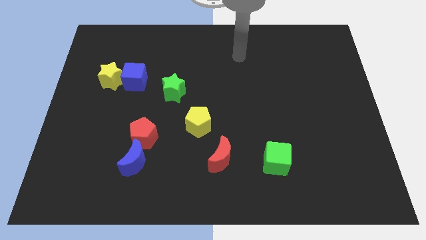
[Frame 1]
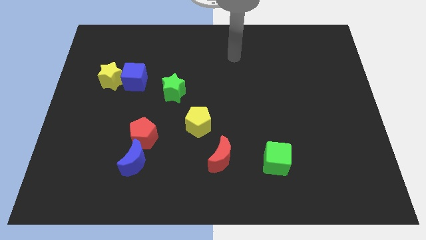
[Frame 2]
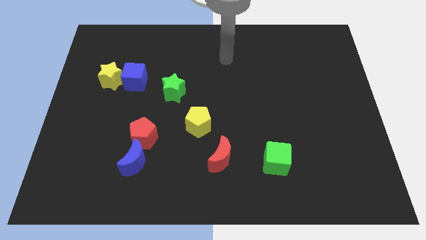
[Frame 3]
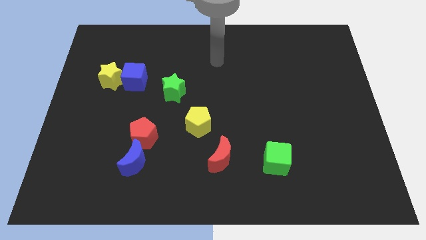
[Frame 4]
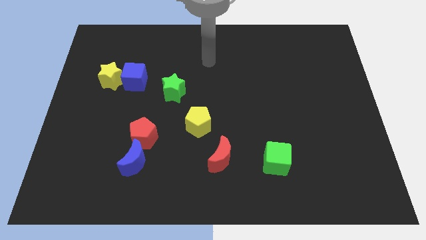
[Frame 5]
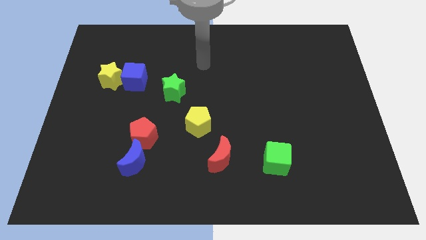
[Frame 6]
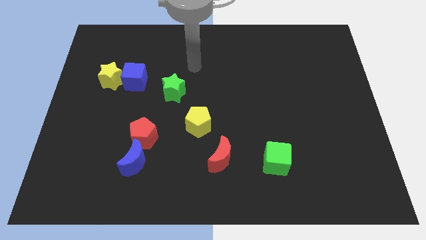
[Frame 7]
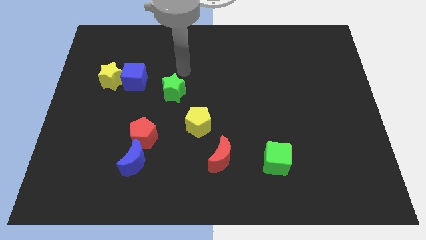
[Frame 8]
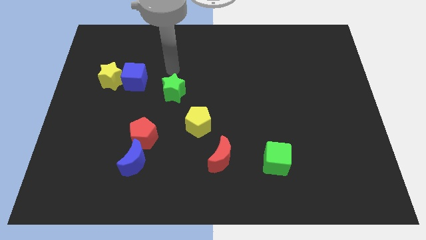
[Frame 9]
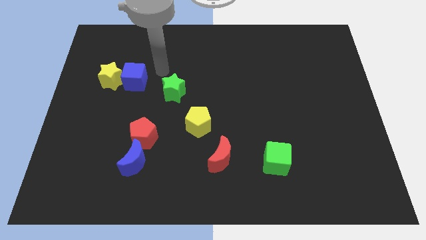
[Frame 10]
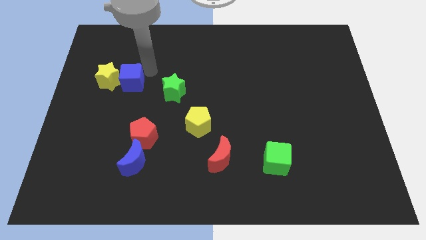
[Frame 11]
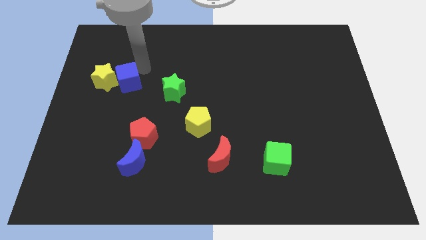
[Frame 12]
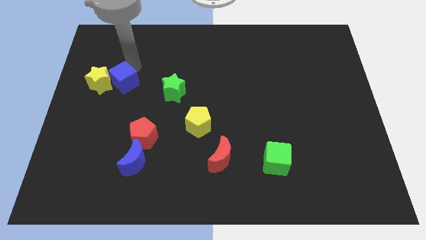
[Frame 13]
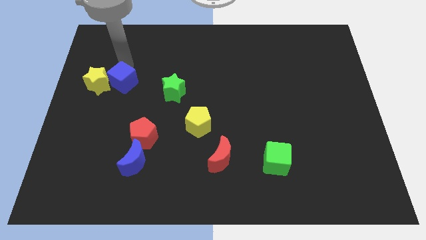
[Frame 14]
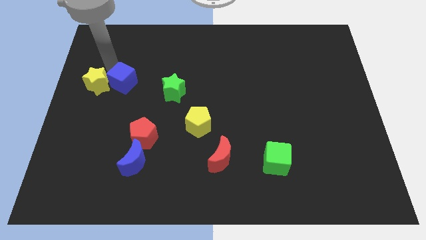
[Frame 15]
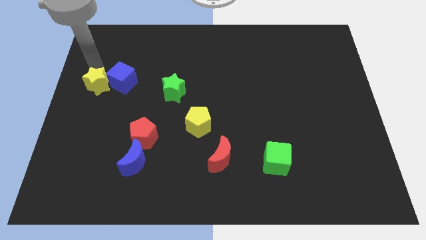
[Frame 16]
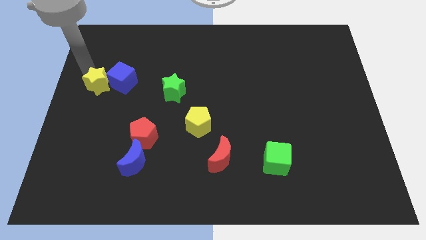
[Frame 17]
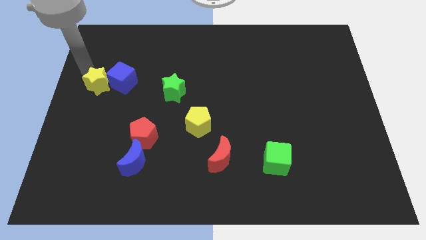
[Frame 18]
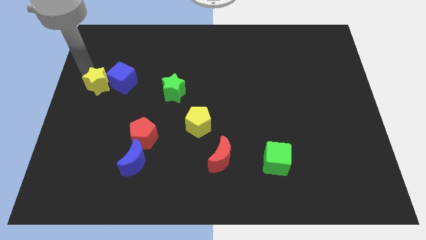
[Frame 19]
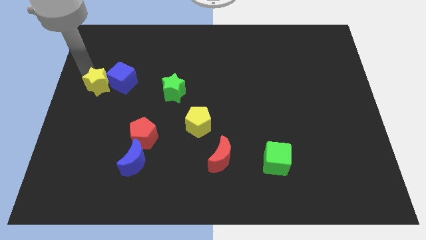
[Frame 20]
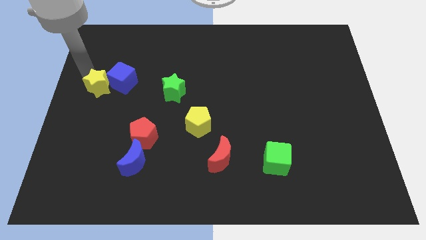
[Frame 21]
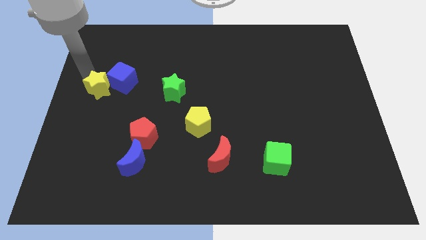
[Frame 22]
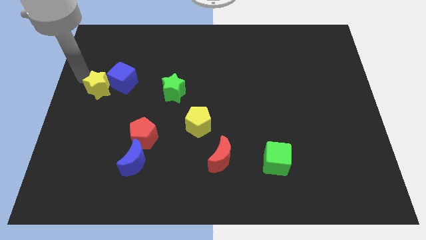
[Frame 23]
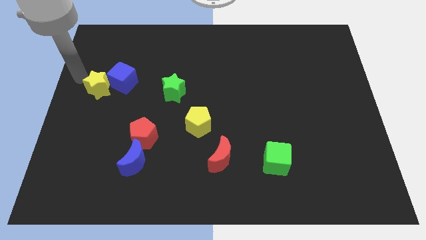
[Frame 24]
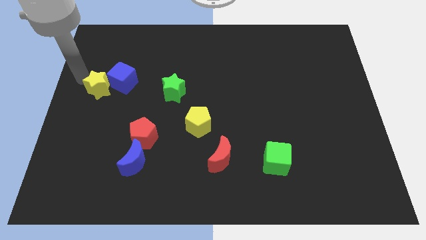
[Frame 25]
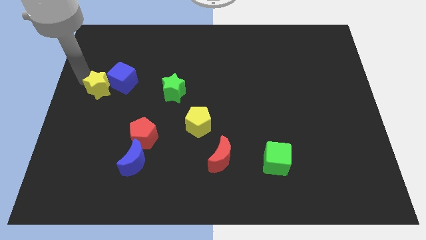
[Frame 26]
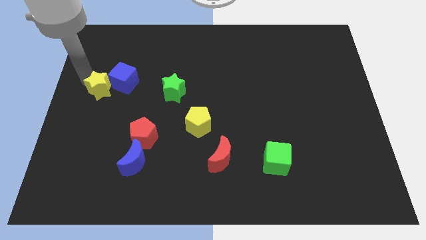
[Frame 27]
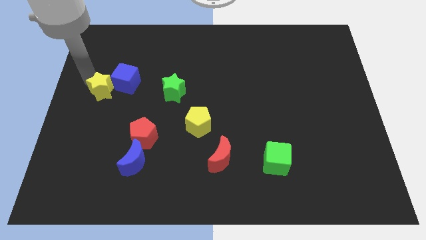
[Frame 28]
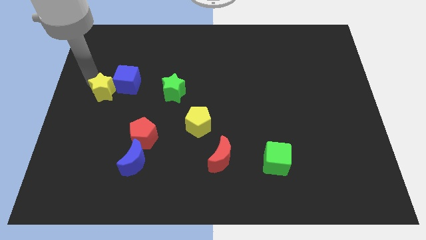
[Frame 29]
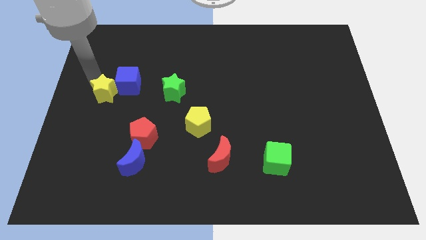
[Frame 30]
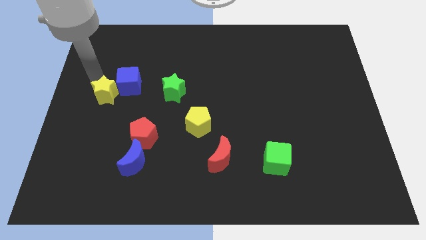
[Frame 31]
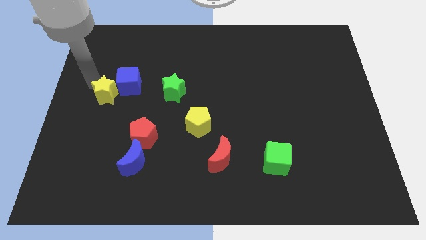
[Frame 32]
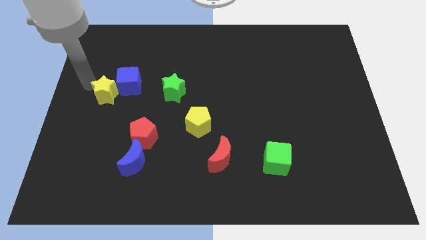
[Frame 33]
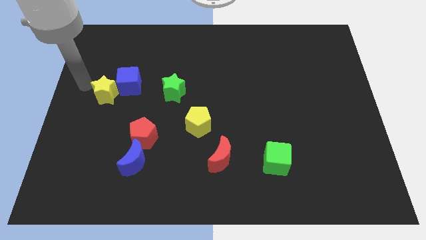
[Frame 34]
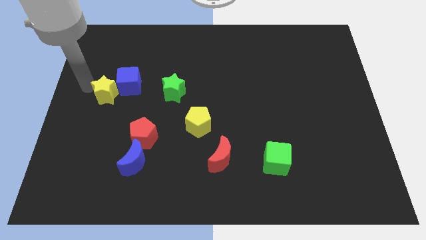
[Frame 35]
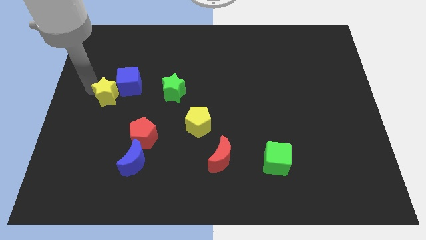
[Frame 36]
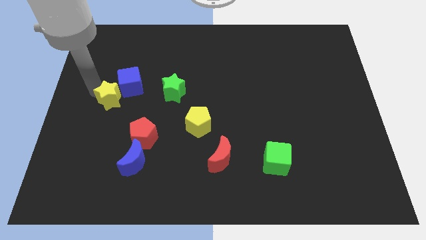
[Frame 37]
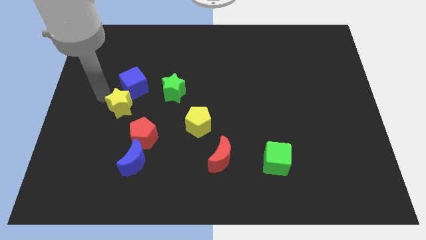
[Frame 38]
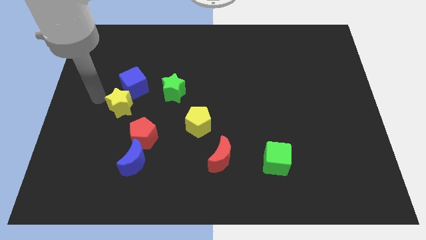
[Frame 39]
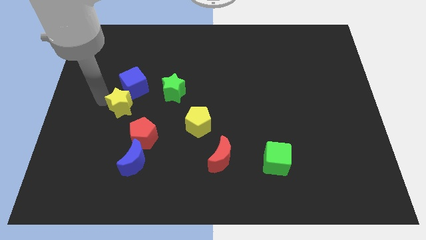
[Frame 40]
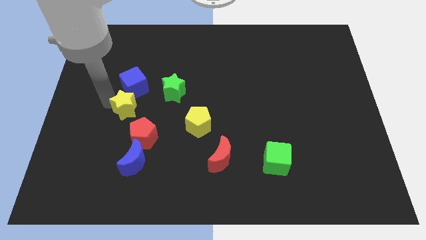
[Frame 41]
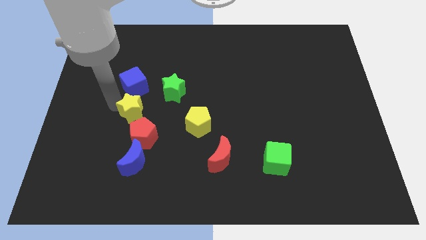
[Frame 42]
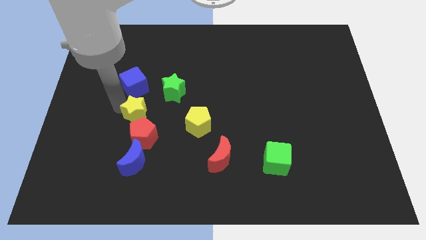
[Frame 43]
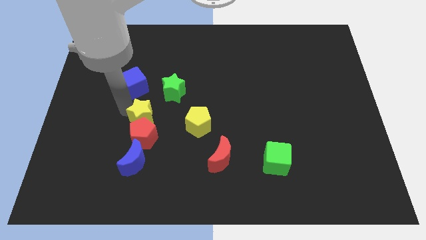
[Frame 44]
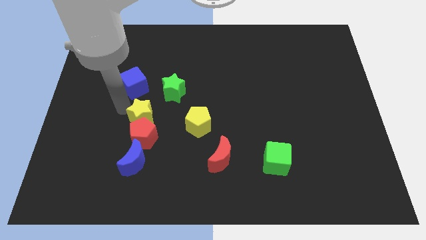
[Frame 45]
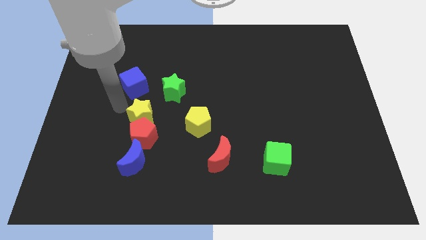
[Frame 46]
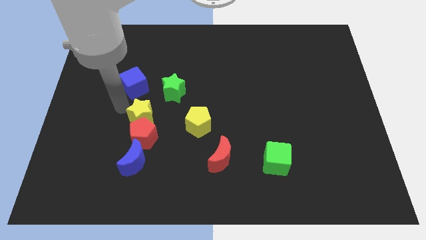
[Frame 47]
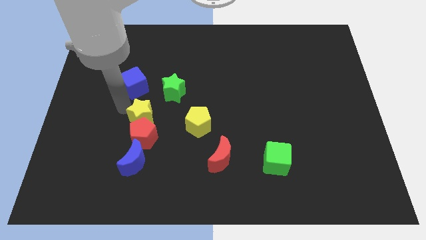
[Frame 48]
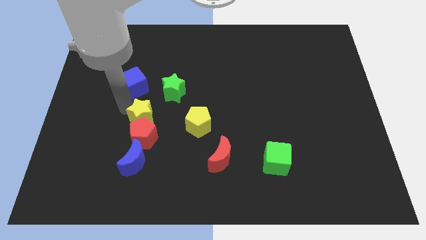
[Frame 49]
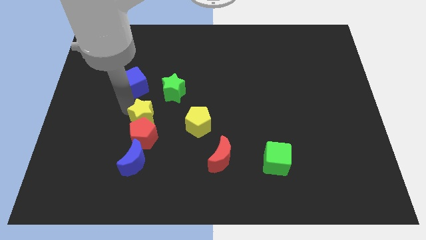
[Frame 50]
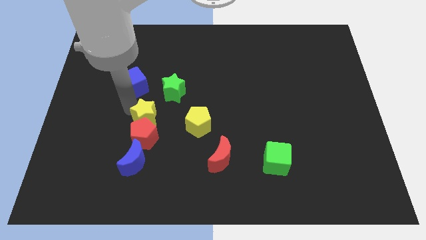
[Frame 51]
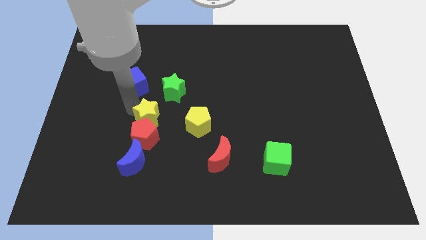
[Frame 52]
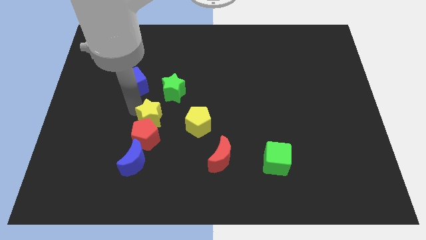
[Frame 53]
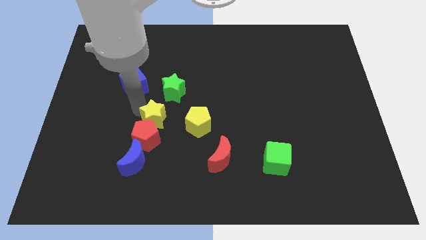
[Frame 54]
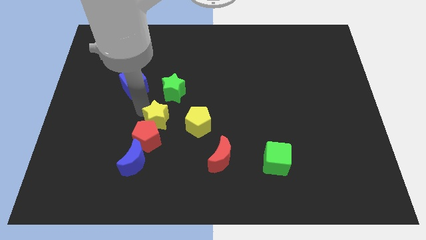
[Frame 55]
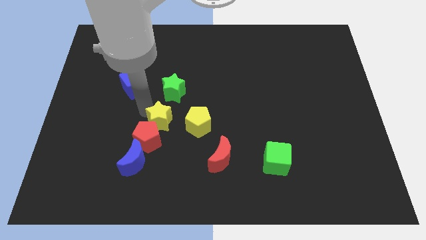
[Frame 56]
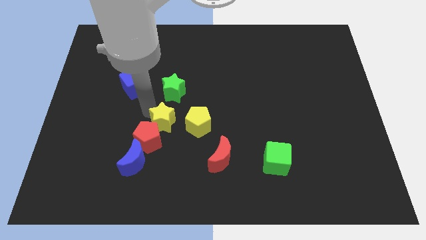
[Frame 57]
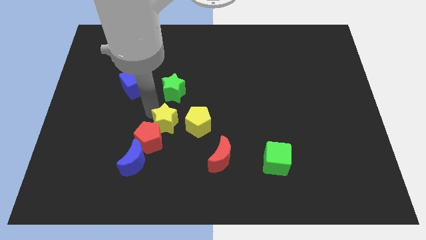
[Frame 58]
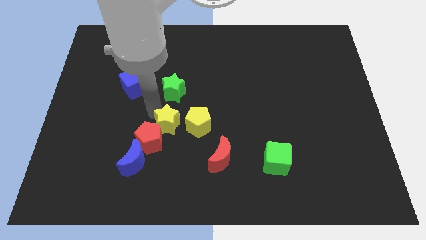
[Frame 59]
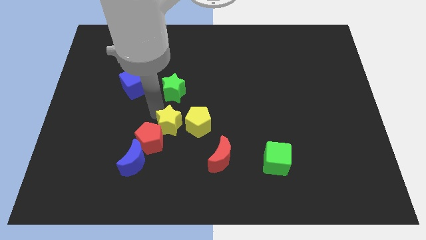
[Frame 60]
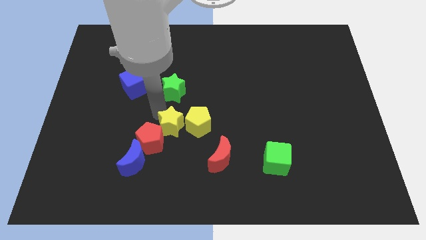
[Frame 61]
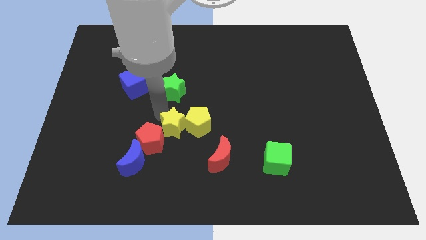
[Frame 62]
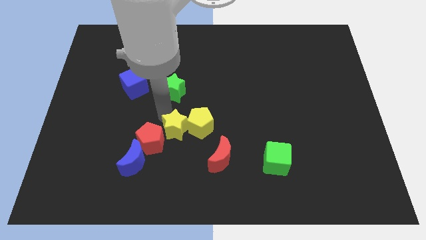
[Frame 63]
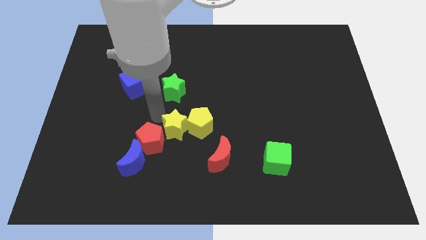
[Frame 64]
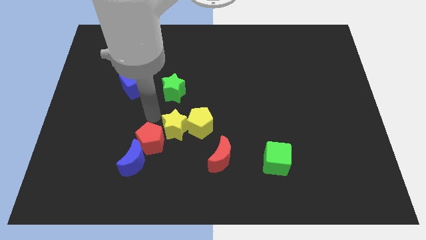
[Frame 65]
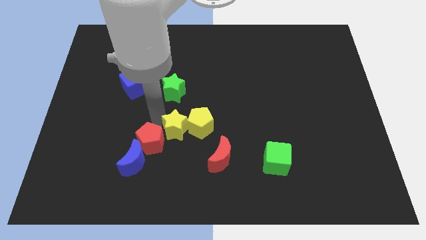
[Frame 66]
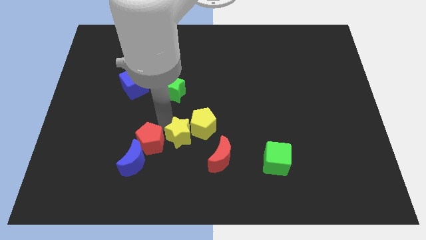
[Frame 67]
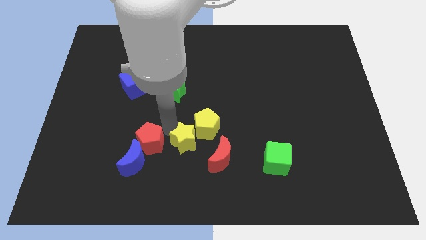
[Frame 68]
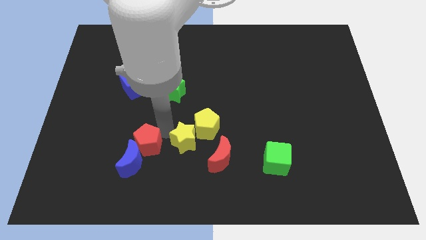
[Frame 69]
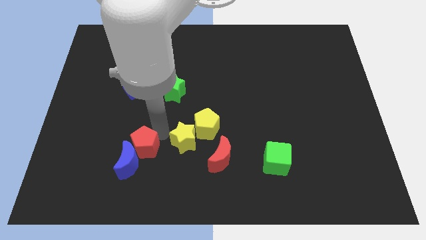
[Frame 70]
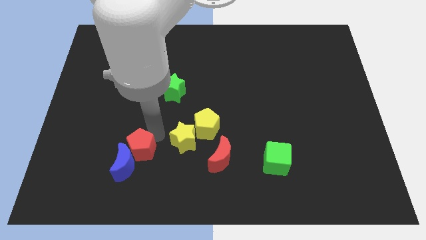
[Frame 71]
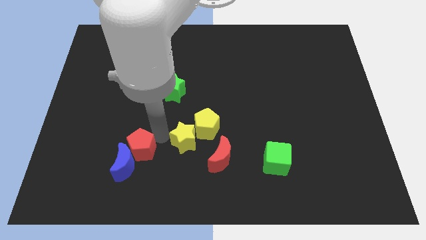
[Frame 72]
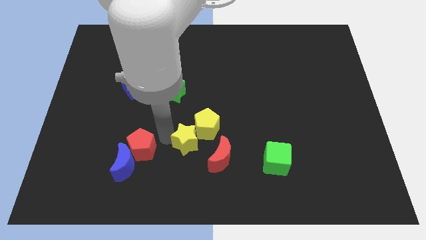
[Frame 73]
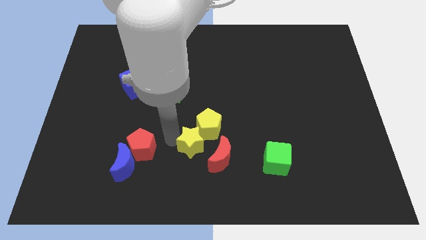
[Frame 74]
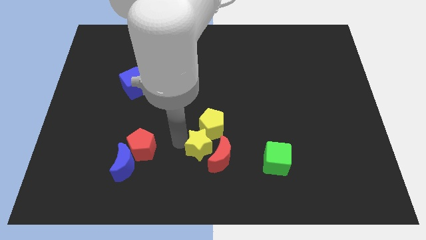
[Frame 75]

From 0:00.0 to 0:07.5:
push the yellow star next to the red moon
